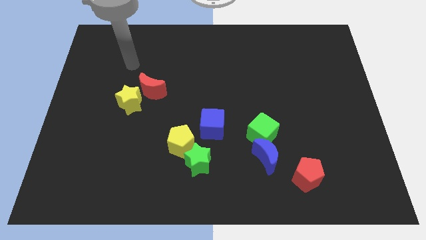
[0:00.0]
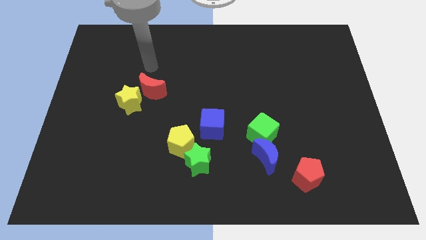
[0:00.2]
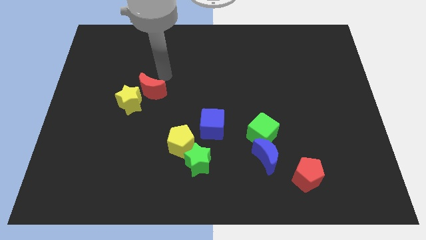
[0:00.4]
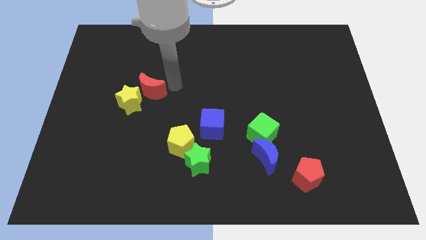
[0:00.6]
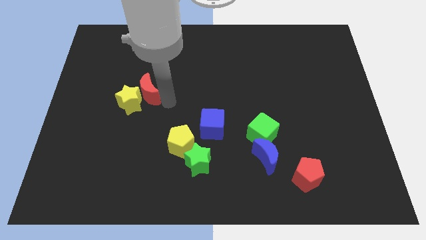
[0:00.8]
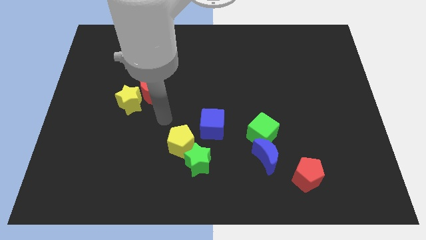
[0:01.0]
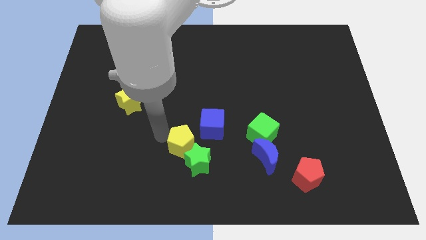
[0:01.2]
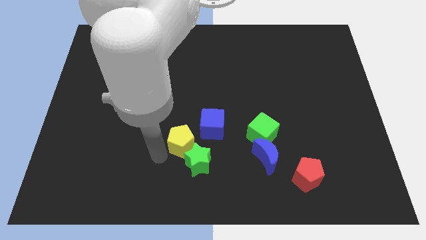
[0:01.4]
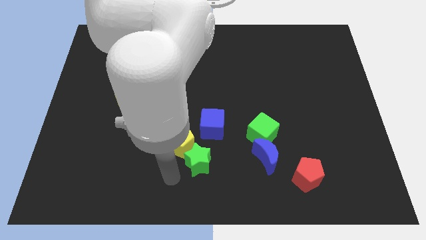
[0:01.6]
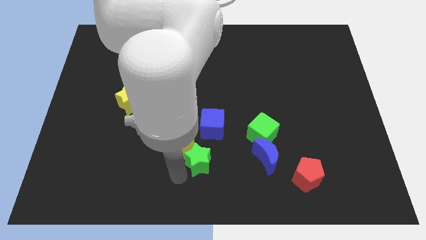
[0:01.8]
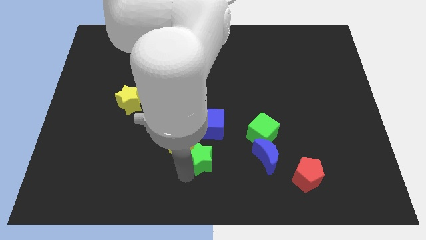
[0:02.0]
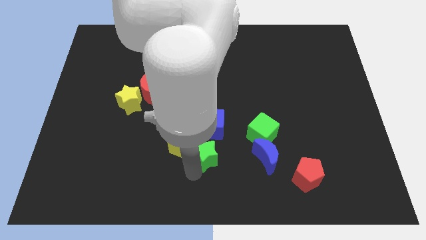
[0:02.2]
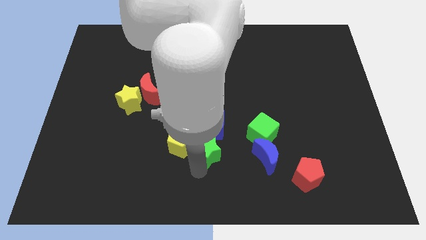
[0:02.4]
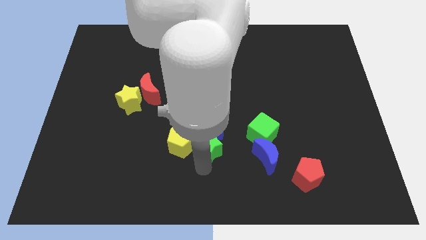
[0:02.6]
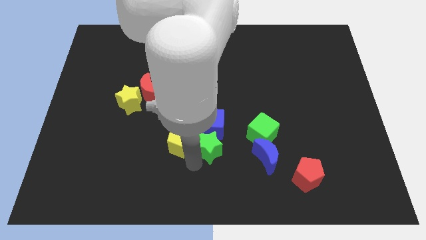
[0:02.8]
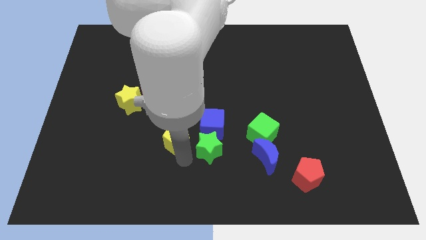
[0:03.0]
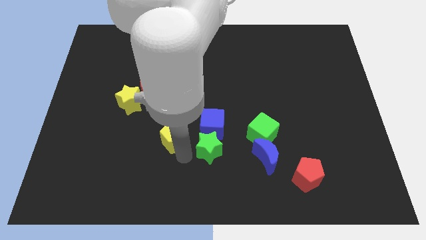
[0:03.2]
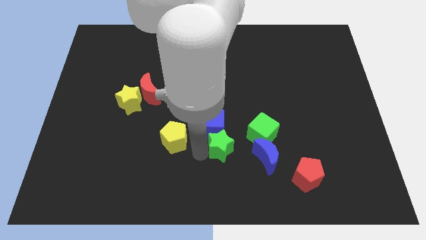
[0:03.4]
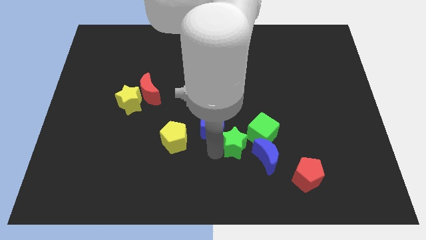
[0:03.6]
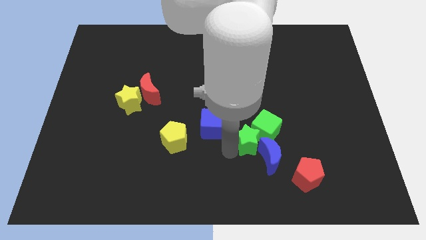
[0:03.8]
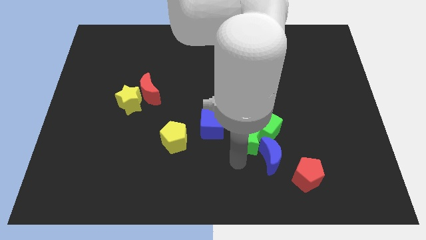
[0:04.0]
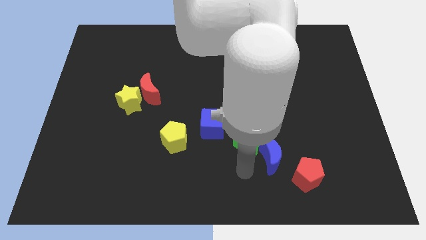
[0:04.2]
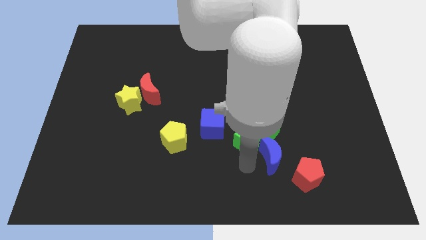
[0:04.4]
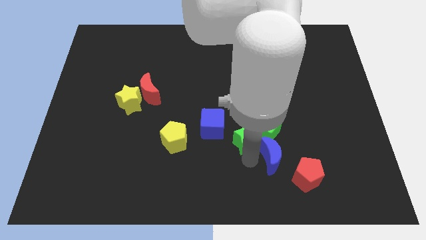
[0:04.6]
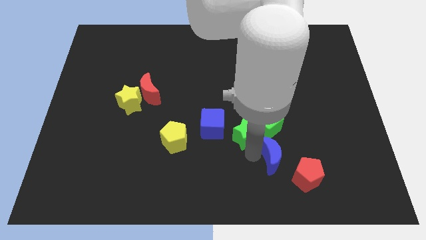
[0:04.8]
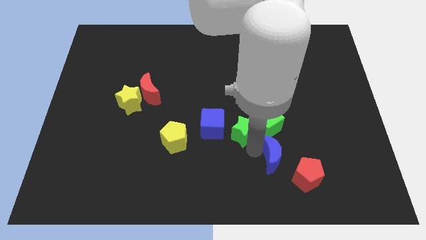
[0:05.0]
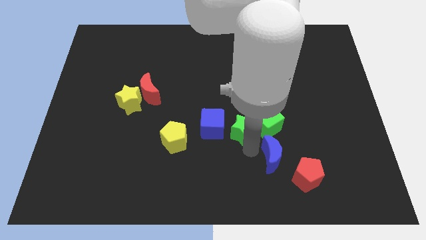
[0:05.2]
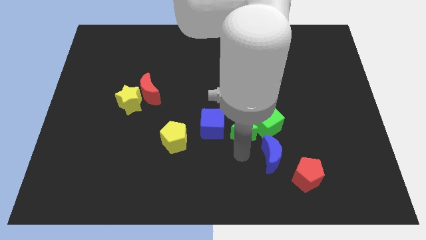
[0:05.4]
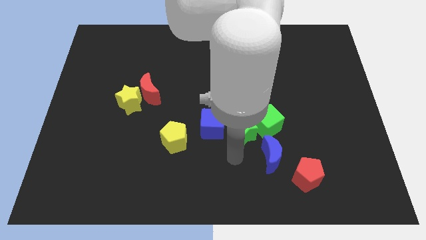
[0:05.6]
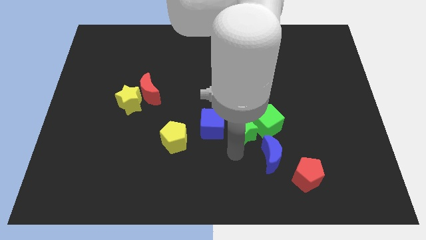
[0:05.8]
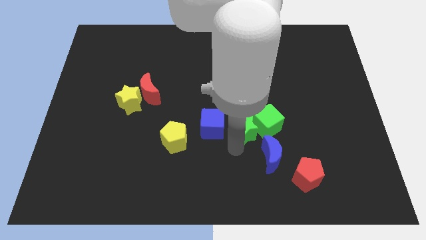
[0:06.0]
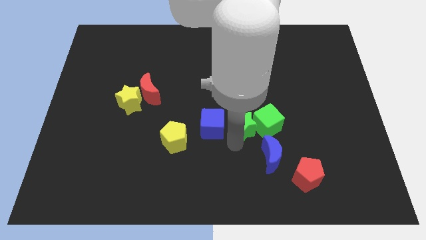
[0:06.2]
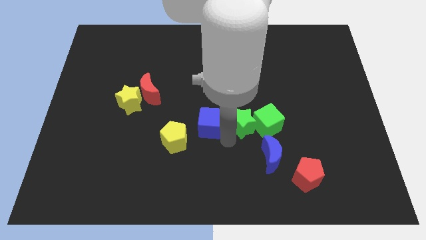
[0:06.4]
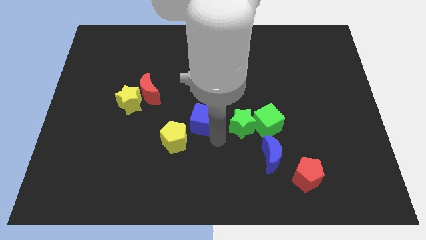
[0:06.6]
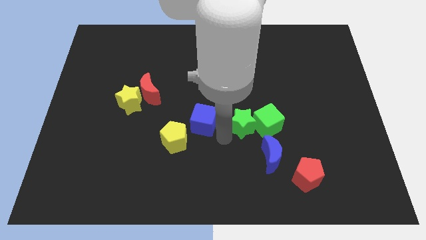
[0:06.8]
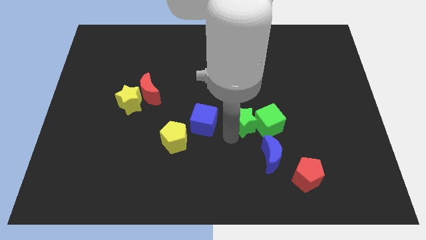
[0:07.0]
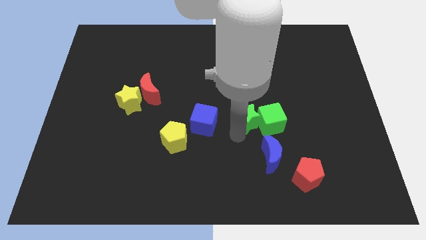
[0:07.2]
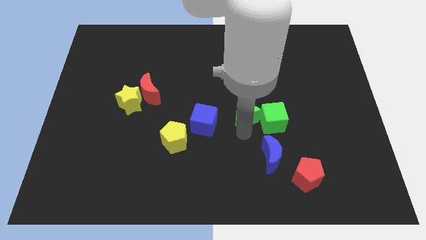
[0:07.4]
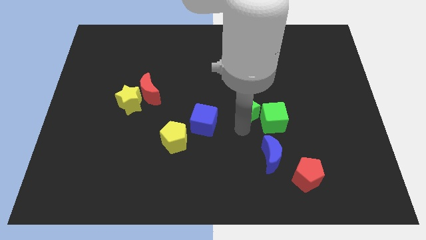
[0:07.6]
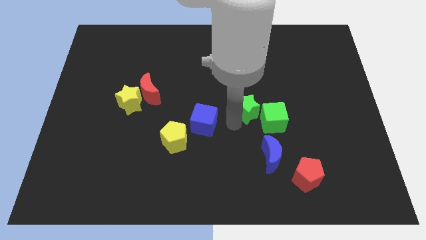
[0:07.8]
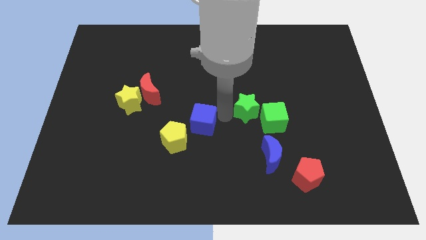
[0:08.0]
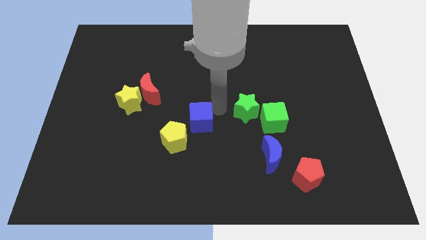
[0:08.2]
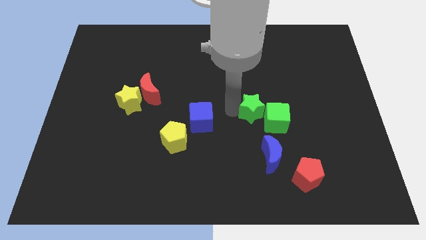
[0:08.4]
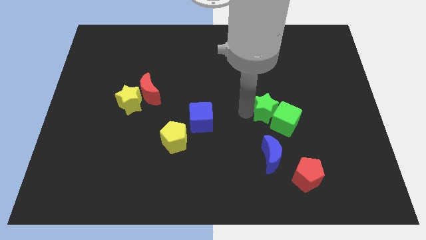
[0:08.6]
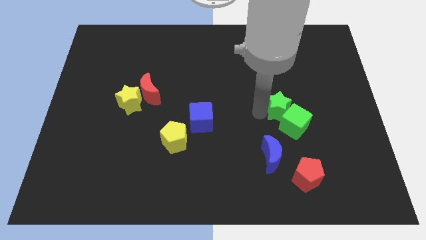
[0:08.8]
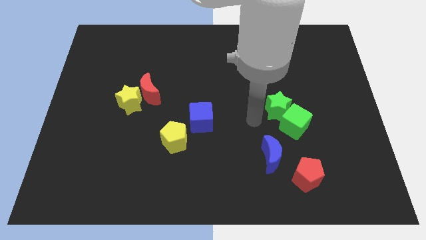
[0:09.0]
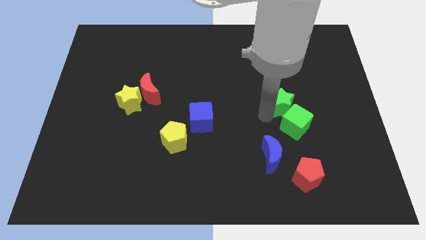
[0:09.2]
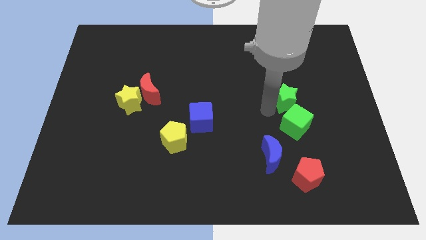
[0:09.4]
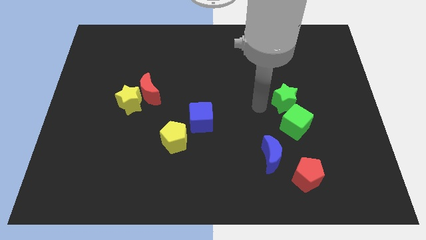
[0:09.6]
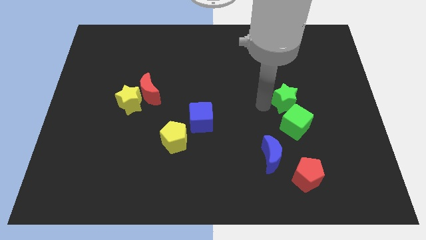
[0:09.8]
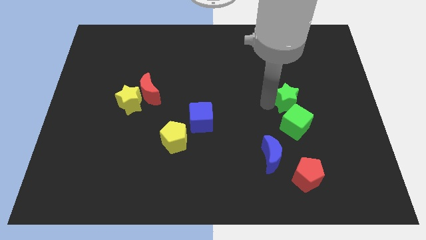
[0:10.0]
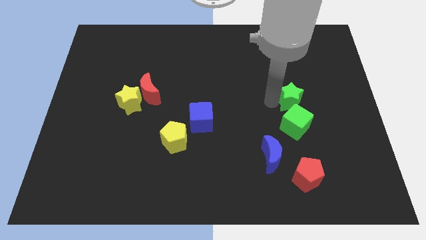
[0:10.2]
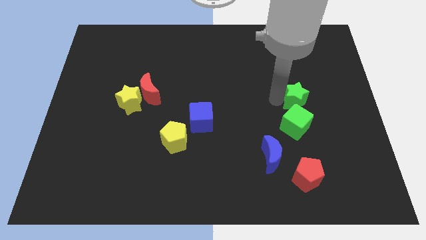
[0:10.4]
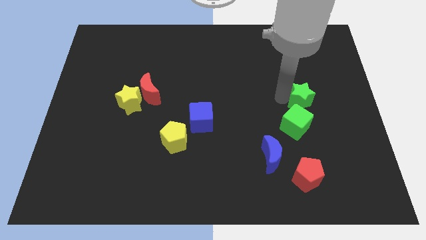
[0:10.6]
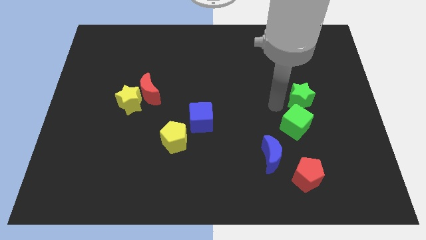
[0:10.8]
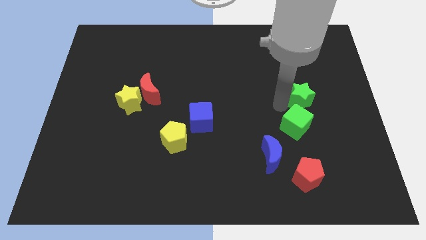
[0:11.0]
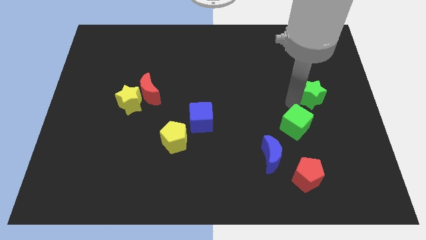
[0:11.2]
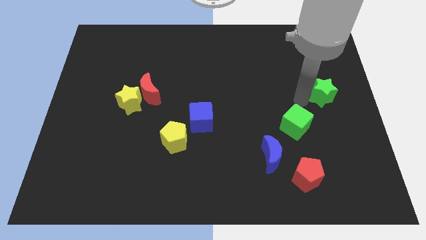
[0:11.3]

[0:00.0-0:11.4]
put the green star to the right side of the board

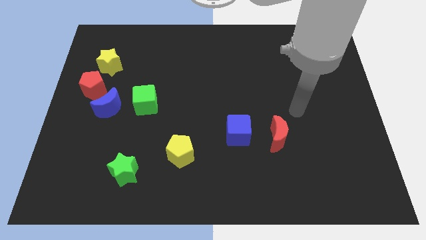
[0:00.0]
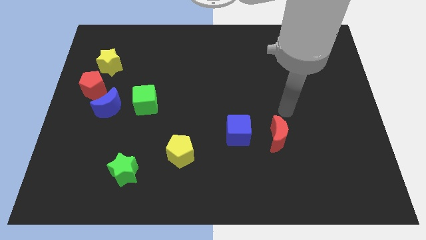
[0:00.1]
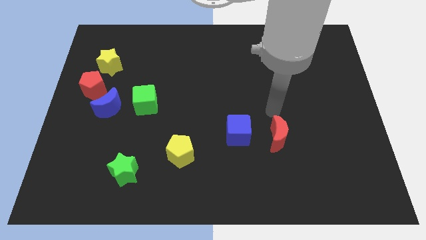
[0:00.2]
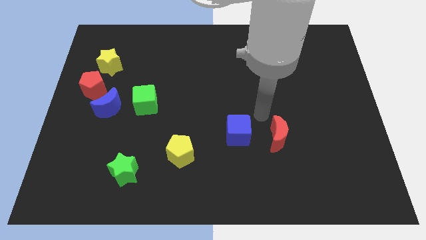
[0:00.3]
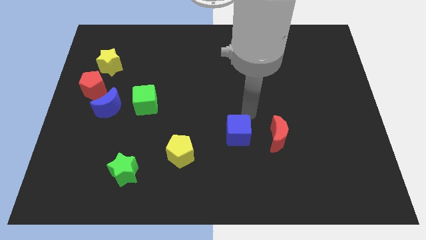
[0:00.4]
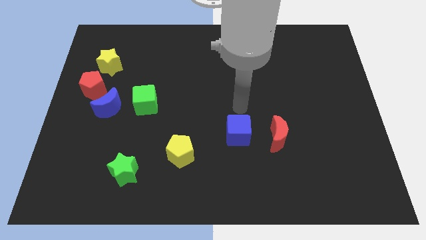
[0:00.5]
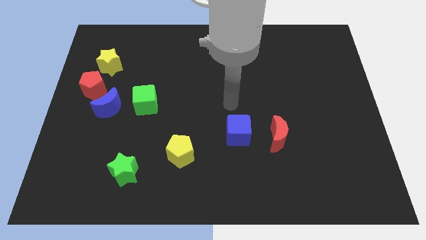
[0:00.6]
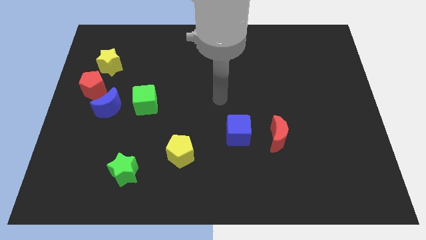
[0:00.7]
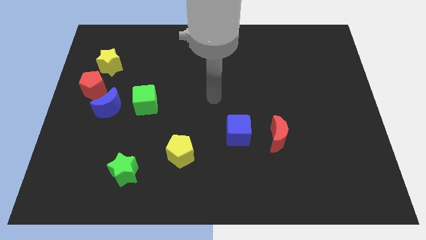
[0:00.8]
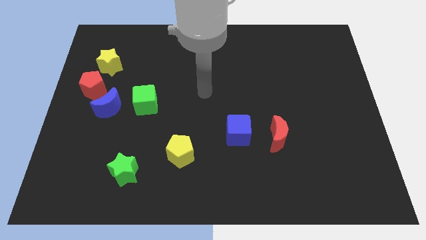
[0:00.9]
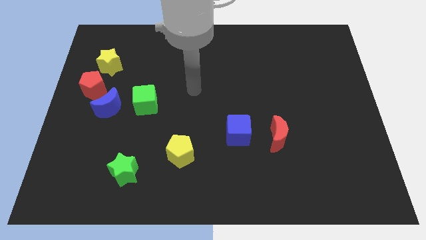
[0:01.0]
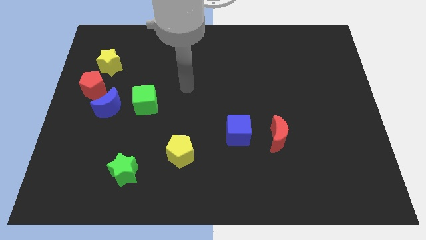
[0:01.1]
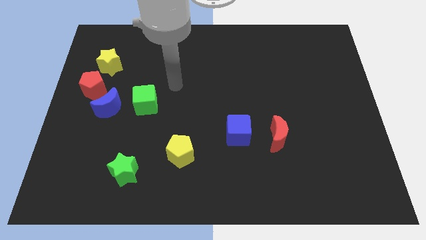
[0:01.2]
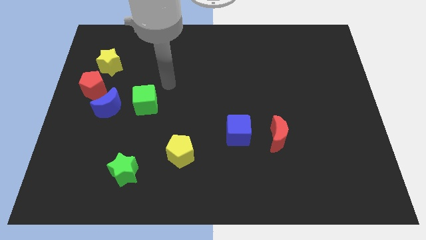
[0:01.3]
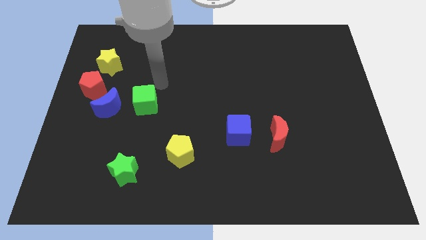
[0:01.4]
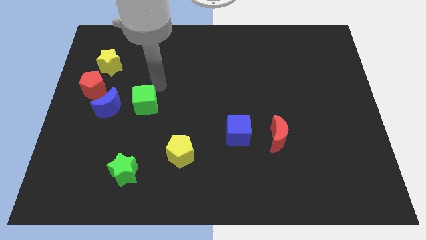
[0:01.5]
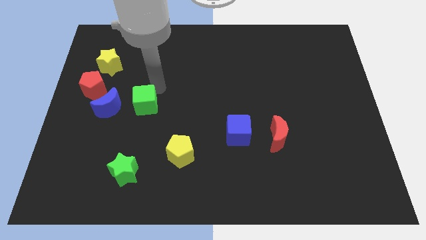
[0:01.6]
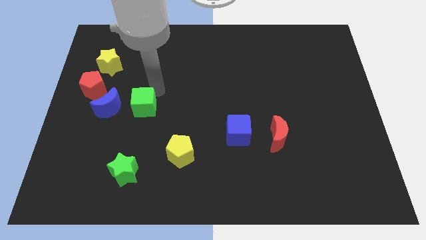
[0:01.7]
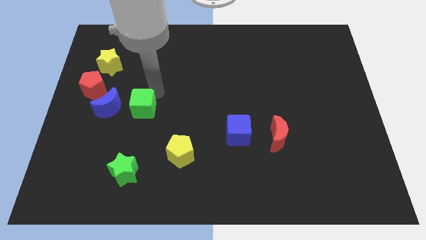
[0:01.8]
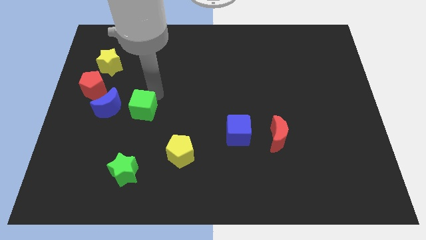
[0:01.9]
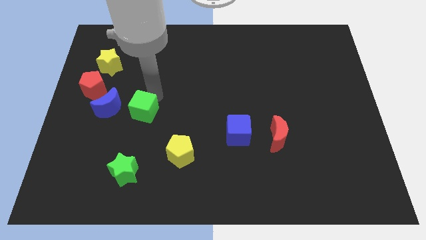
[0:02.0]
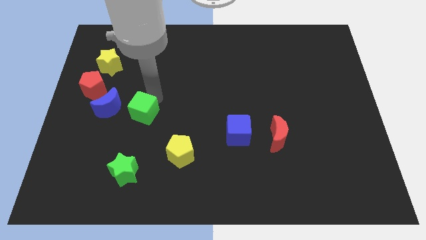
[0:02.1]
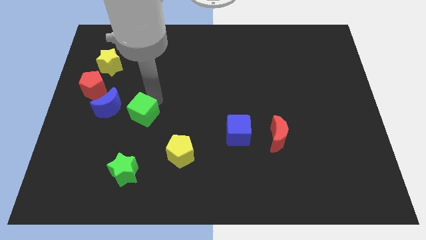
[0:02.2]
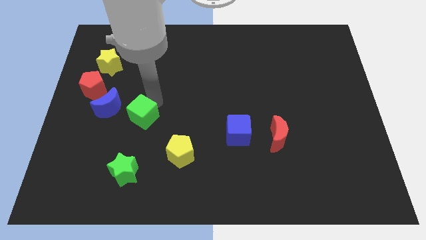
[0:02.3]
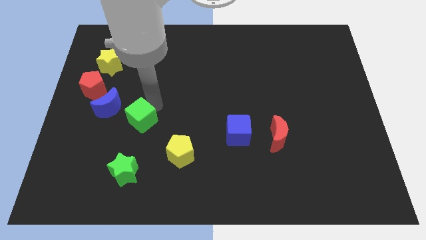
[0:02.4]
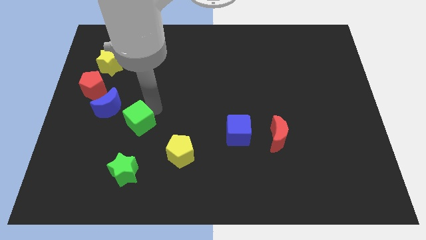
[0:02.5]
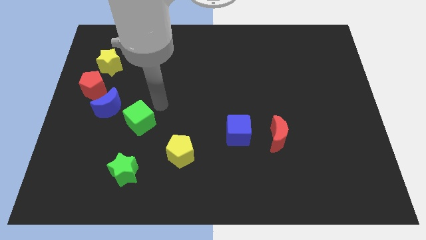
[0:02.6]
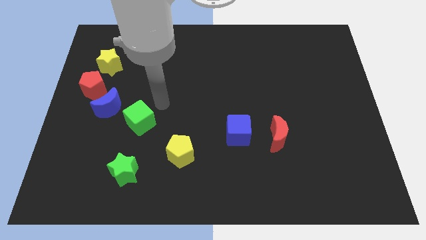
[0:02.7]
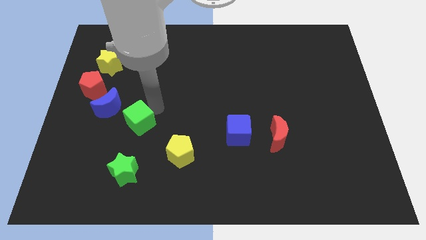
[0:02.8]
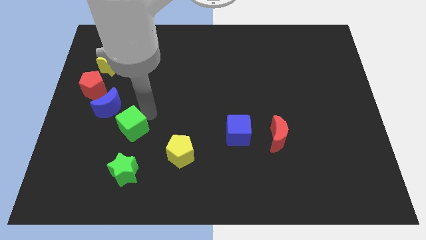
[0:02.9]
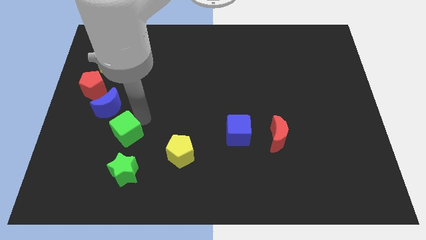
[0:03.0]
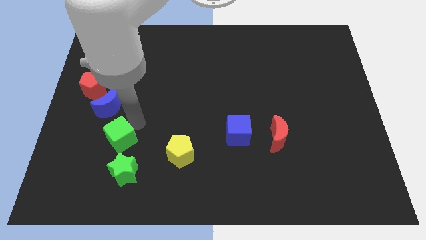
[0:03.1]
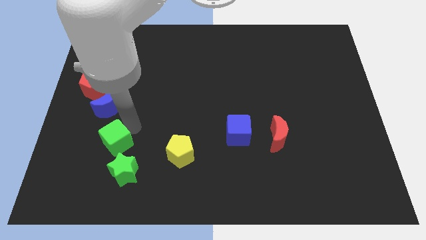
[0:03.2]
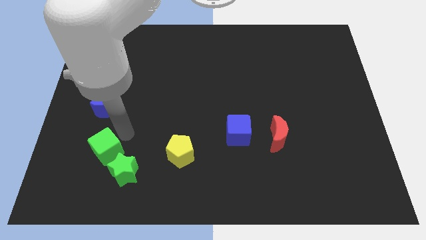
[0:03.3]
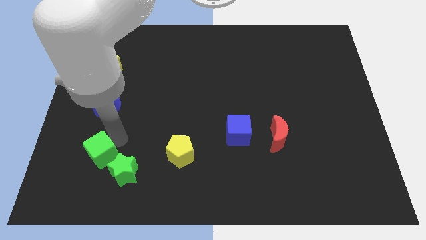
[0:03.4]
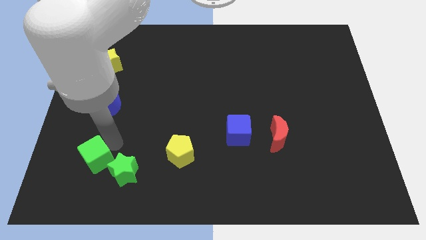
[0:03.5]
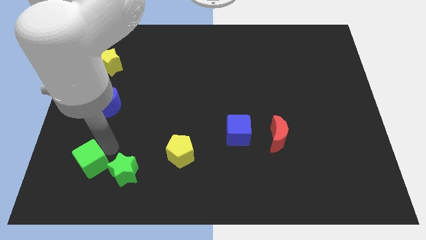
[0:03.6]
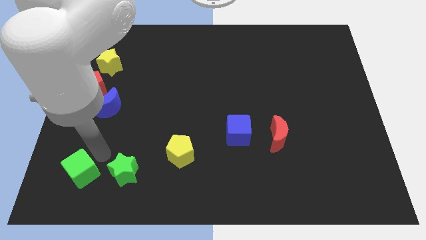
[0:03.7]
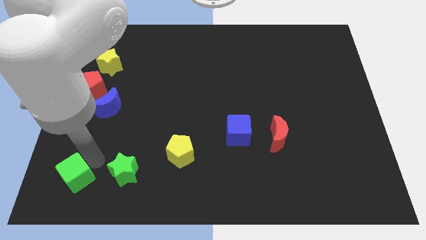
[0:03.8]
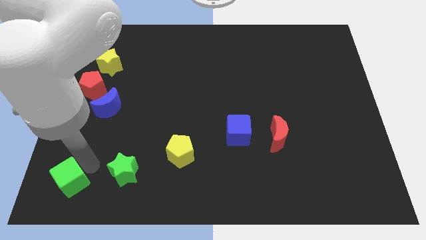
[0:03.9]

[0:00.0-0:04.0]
move the green cube to the bottom left of the board
